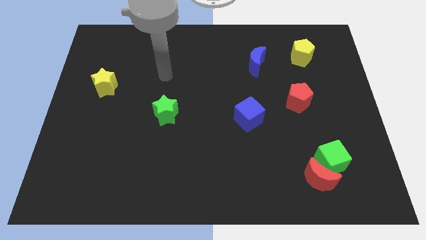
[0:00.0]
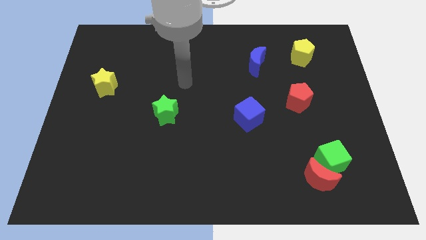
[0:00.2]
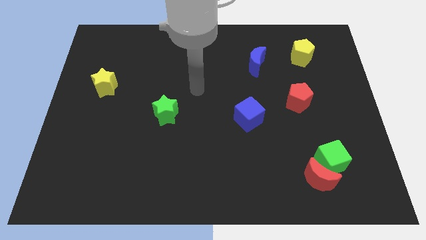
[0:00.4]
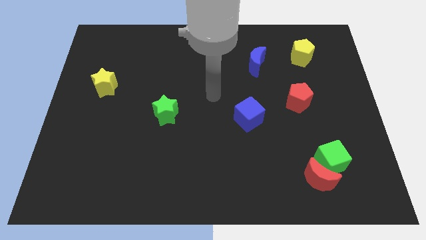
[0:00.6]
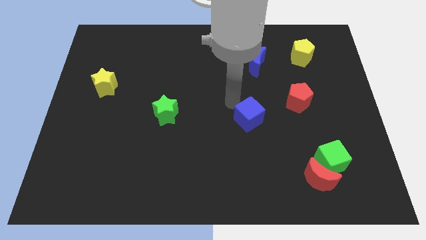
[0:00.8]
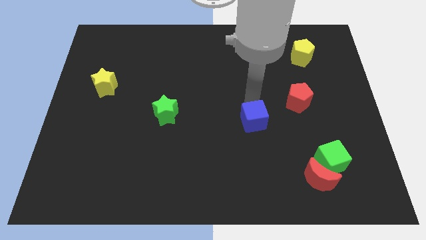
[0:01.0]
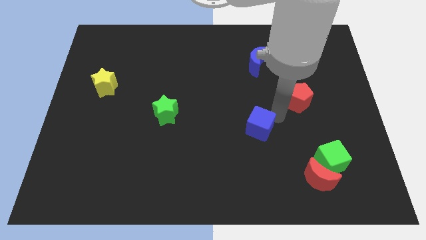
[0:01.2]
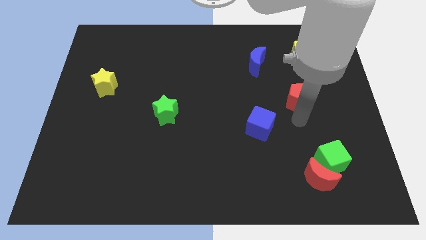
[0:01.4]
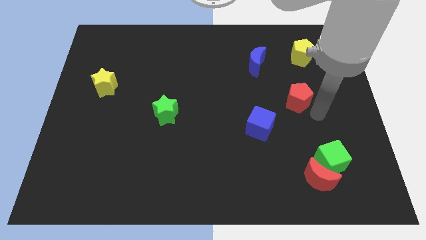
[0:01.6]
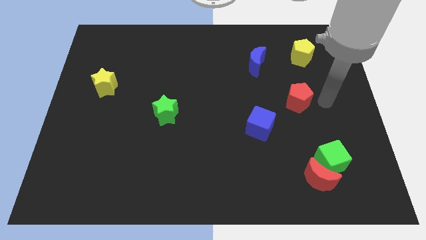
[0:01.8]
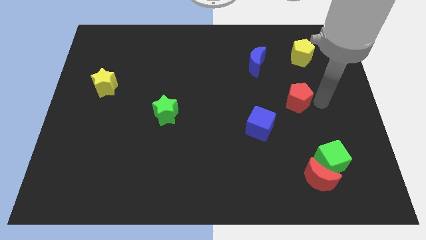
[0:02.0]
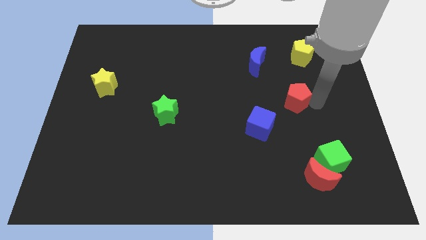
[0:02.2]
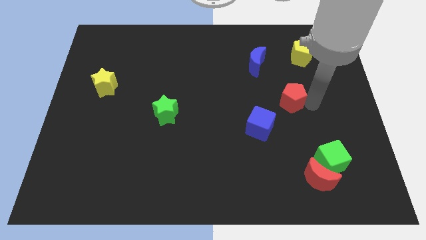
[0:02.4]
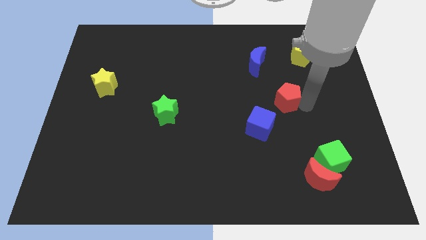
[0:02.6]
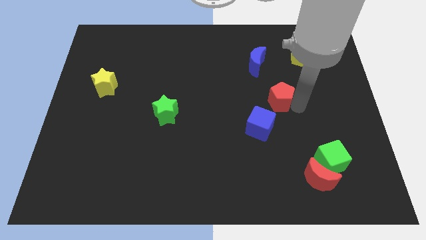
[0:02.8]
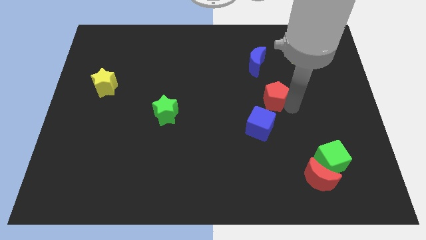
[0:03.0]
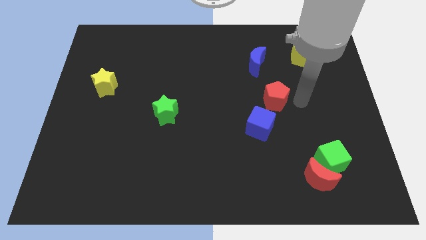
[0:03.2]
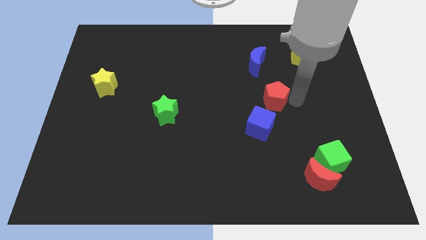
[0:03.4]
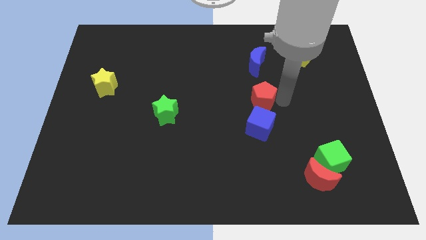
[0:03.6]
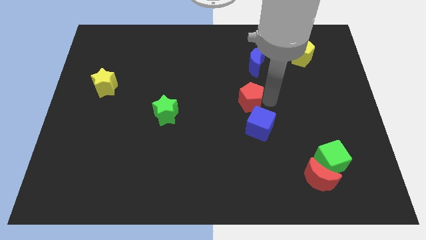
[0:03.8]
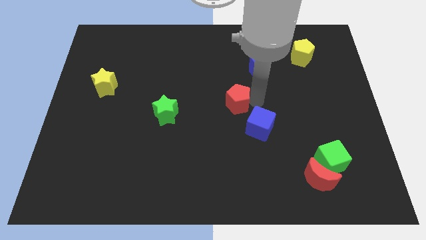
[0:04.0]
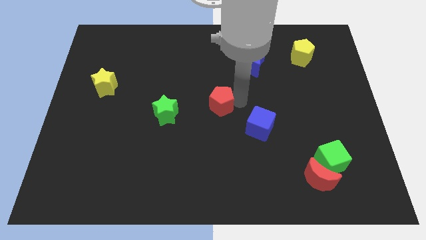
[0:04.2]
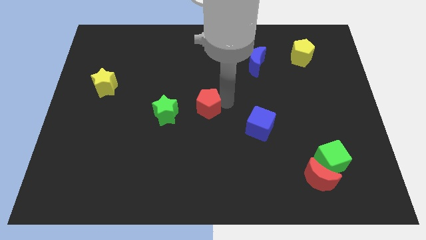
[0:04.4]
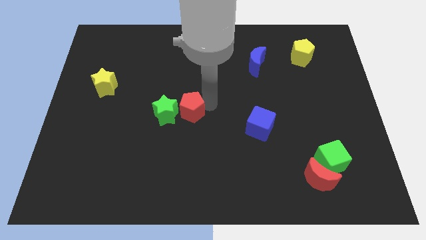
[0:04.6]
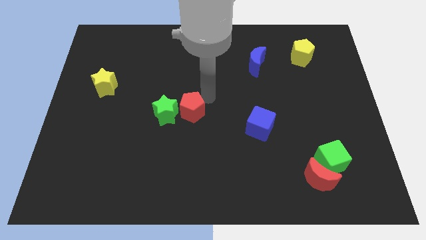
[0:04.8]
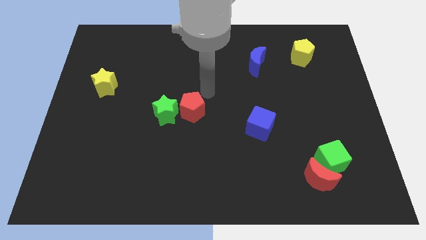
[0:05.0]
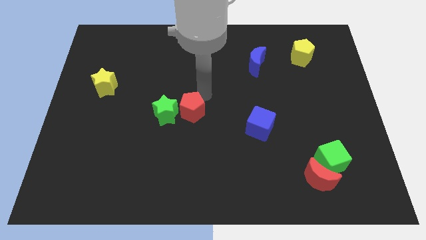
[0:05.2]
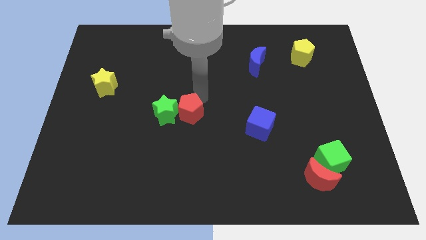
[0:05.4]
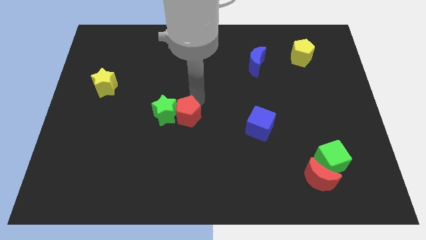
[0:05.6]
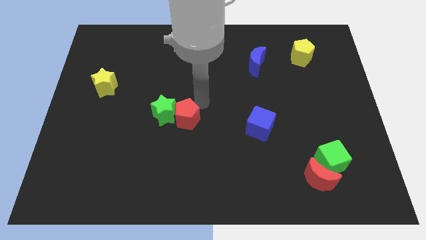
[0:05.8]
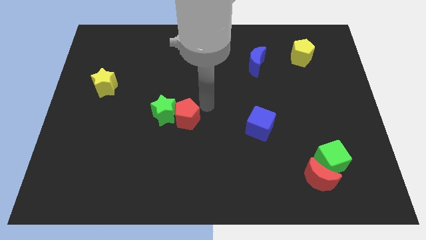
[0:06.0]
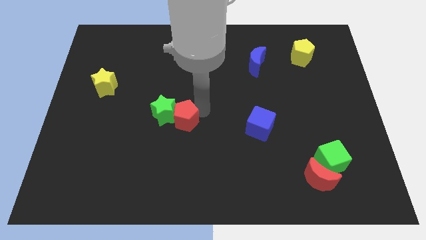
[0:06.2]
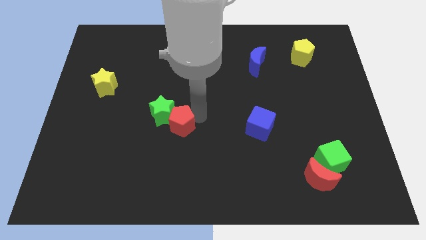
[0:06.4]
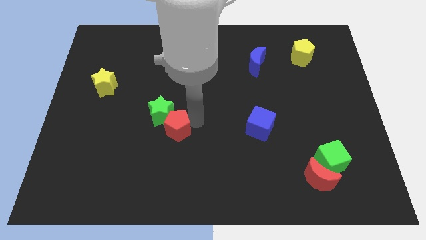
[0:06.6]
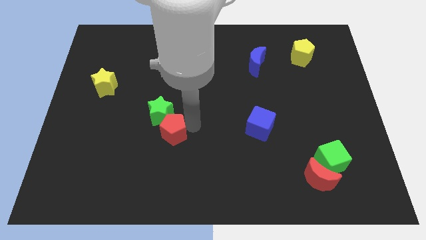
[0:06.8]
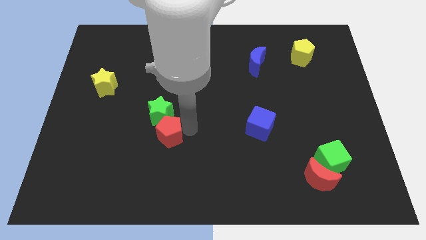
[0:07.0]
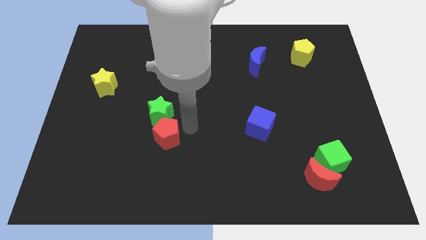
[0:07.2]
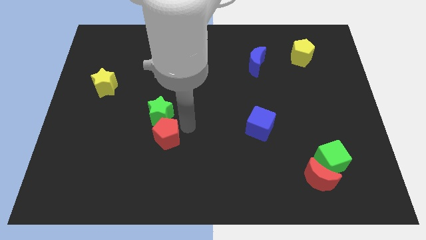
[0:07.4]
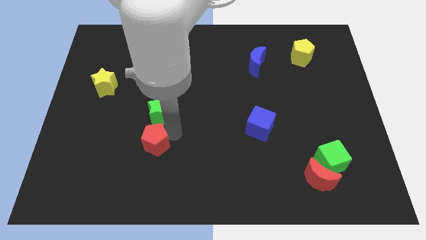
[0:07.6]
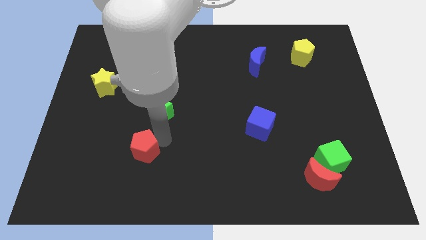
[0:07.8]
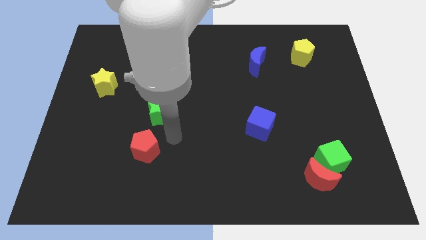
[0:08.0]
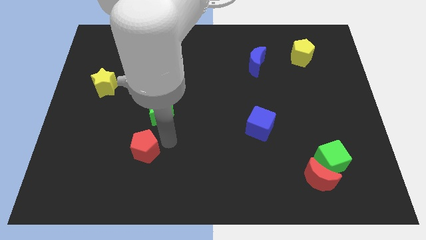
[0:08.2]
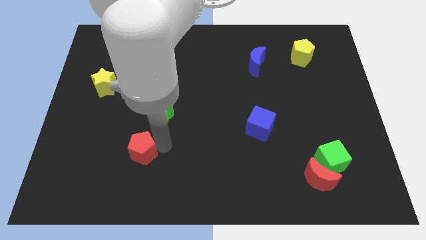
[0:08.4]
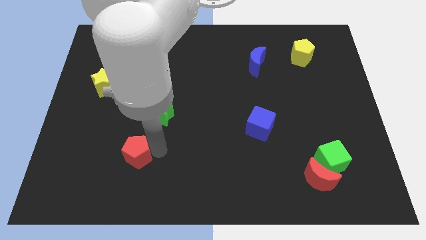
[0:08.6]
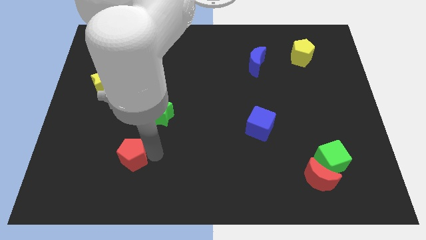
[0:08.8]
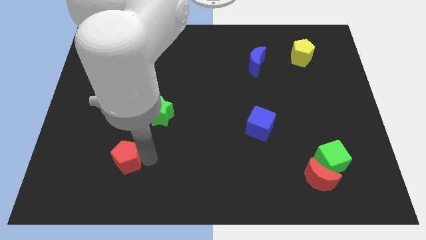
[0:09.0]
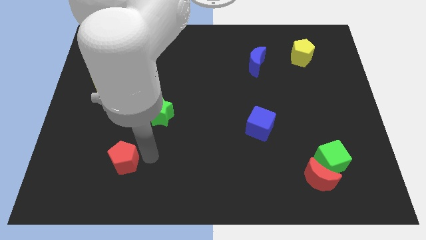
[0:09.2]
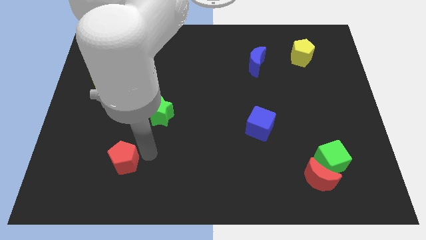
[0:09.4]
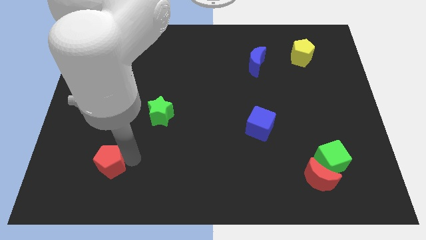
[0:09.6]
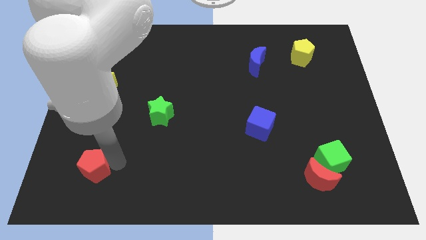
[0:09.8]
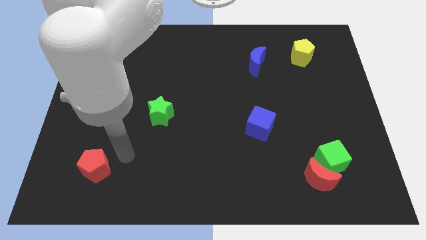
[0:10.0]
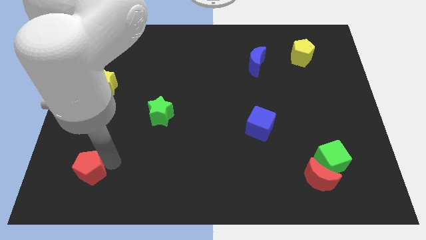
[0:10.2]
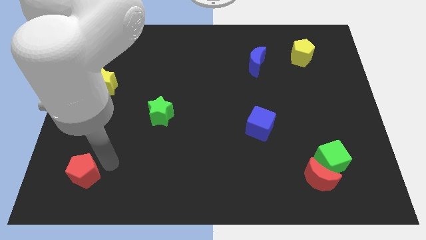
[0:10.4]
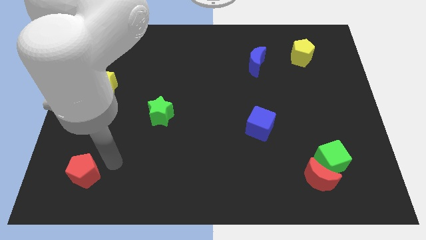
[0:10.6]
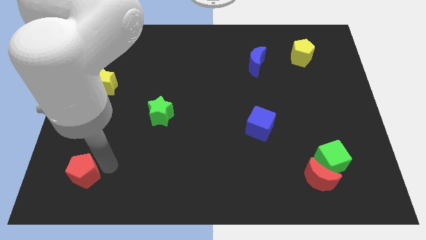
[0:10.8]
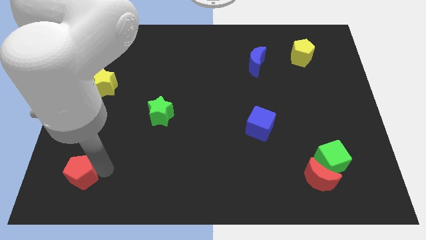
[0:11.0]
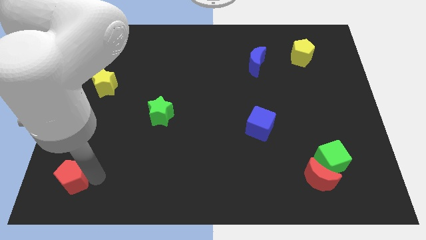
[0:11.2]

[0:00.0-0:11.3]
push the red pentagon to the bottom left of the board

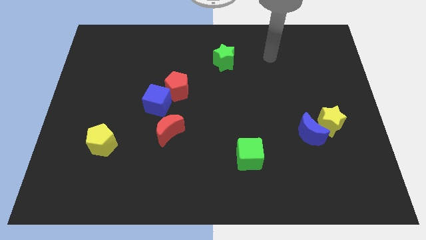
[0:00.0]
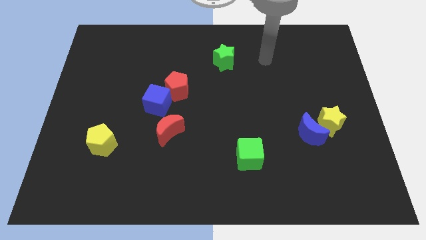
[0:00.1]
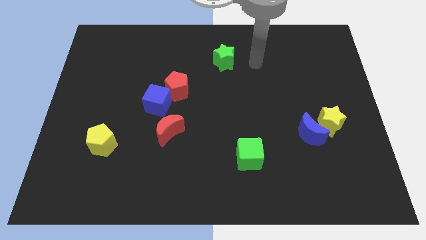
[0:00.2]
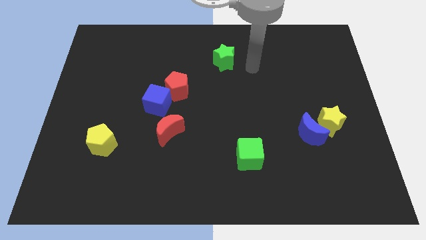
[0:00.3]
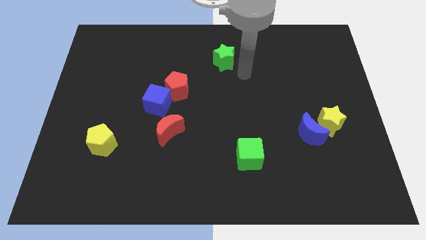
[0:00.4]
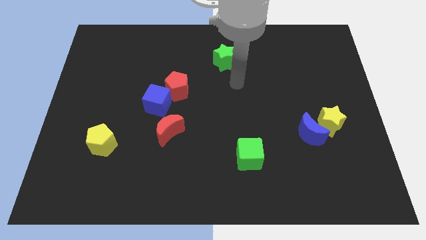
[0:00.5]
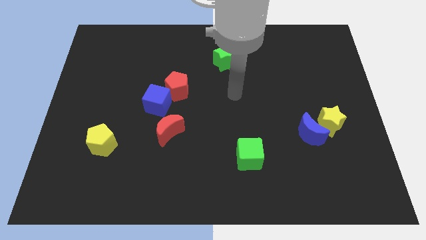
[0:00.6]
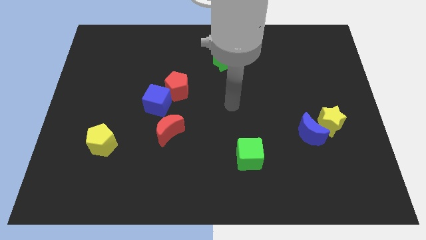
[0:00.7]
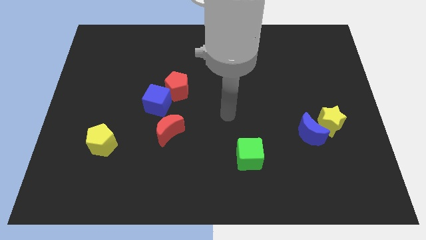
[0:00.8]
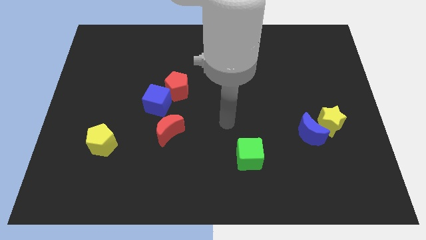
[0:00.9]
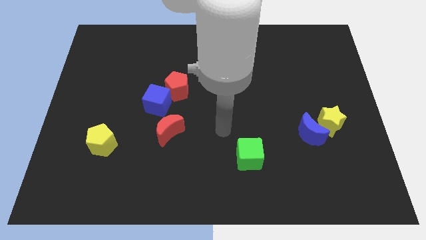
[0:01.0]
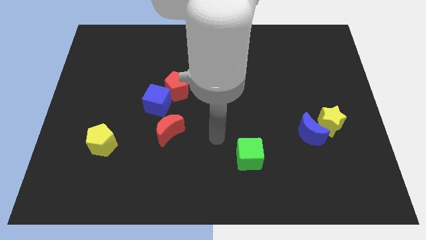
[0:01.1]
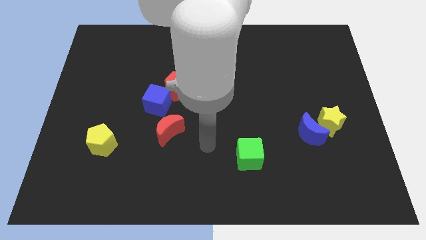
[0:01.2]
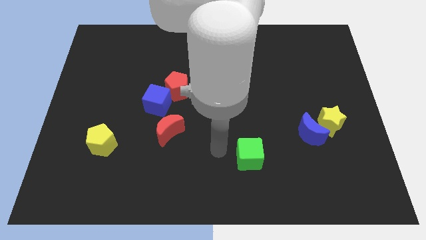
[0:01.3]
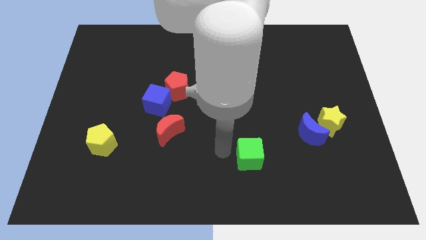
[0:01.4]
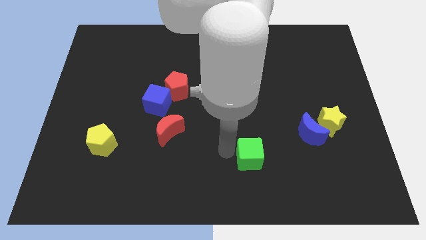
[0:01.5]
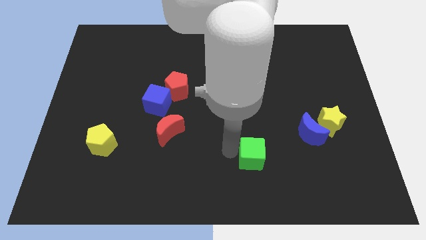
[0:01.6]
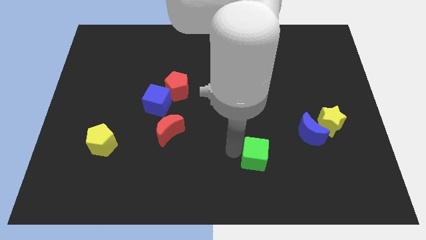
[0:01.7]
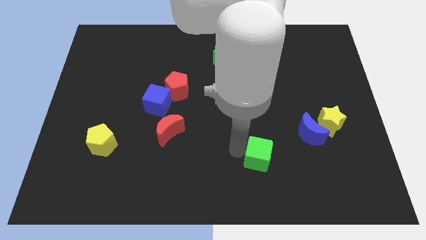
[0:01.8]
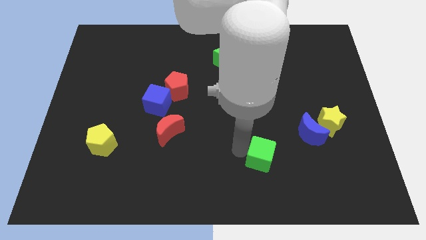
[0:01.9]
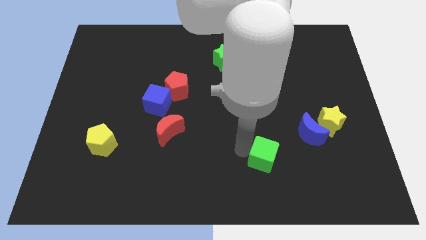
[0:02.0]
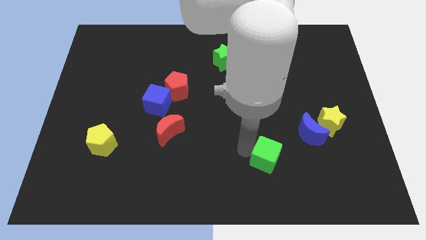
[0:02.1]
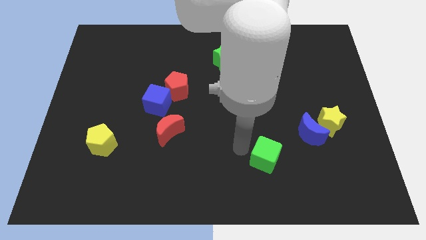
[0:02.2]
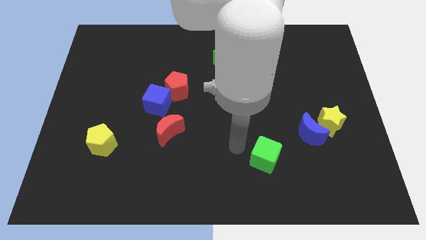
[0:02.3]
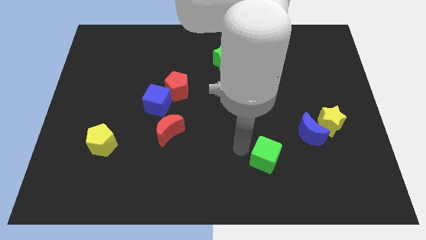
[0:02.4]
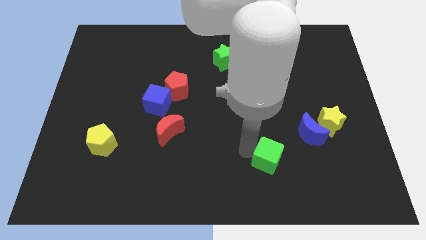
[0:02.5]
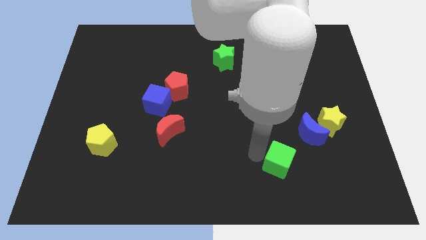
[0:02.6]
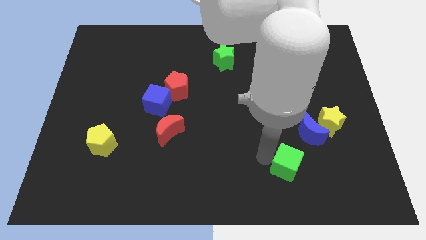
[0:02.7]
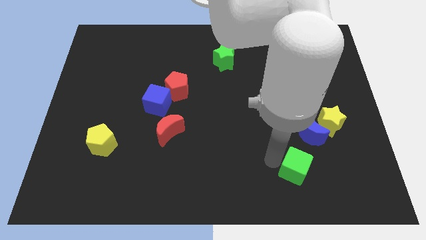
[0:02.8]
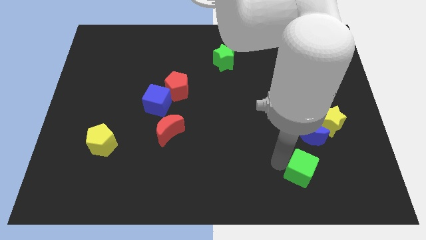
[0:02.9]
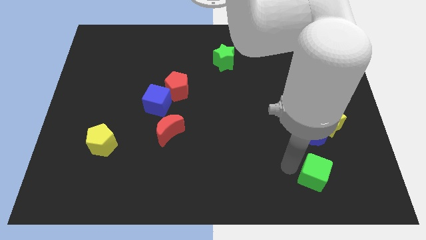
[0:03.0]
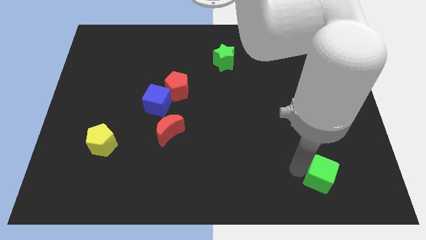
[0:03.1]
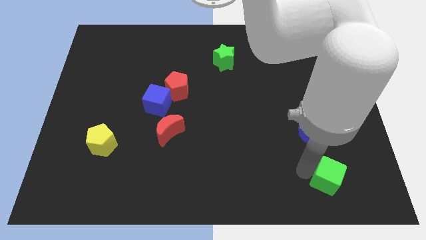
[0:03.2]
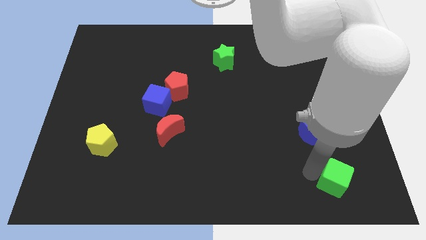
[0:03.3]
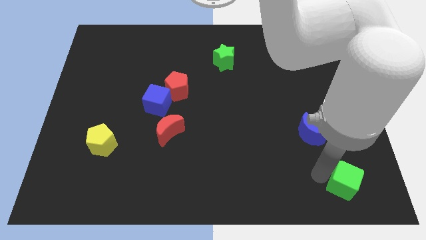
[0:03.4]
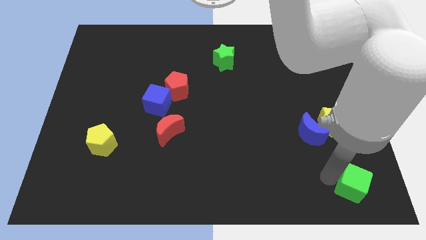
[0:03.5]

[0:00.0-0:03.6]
move the green cube to the lower right corner
